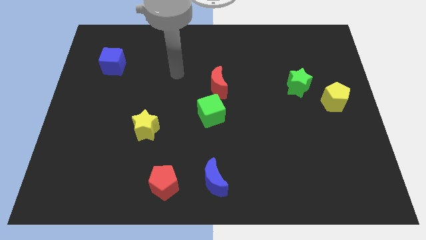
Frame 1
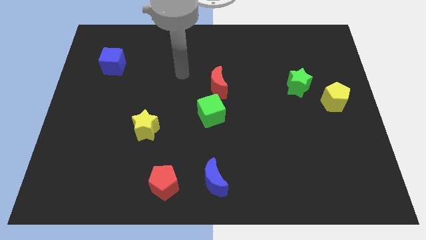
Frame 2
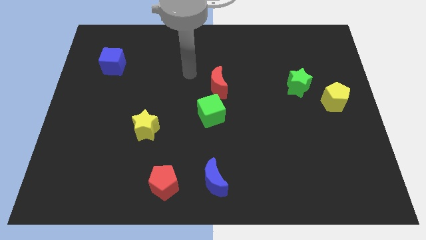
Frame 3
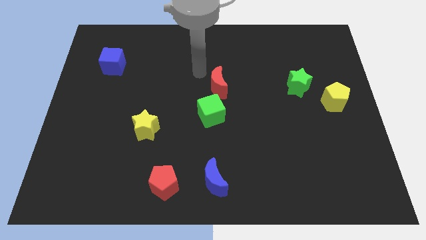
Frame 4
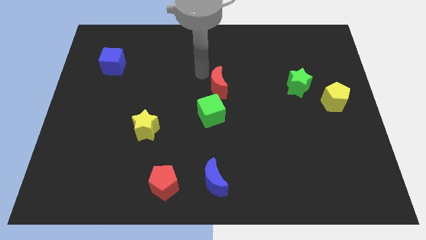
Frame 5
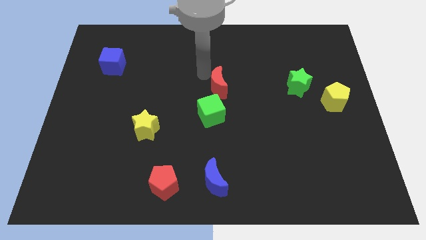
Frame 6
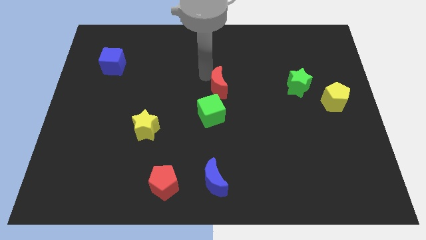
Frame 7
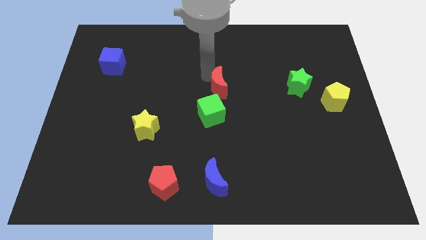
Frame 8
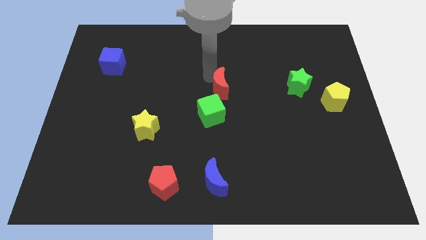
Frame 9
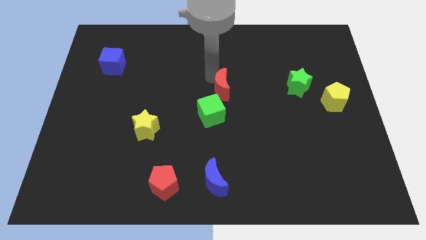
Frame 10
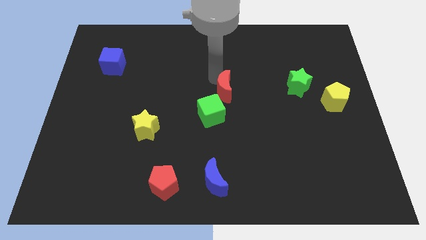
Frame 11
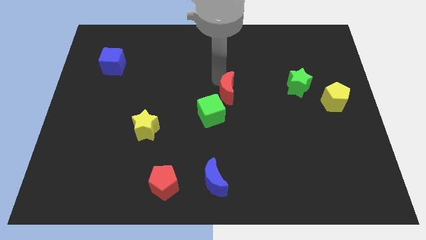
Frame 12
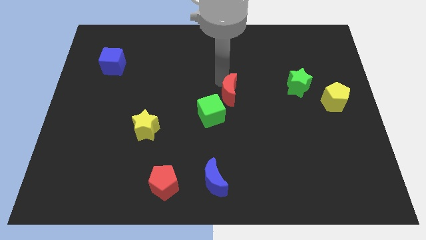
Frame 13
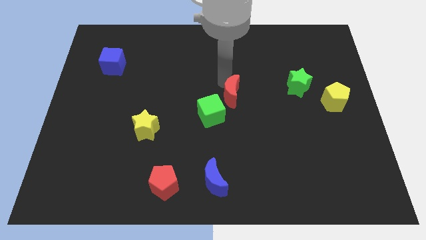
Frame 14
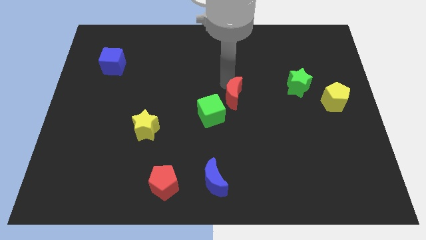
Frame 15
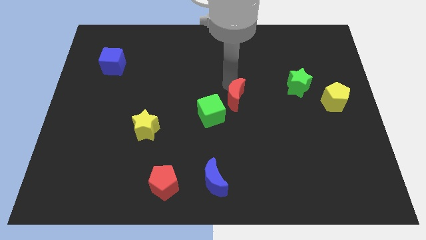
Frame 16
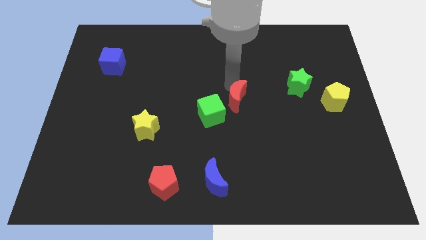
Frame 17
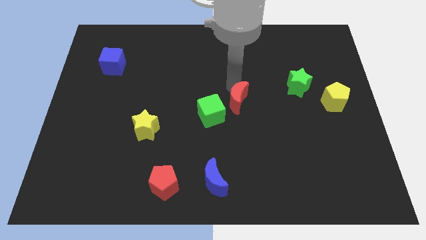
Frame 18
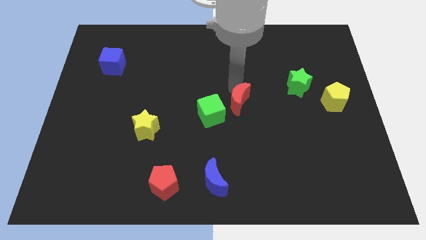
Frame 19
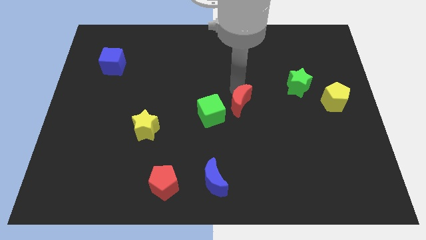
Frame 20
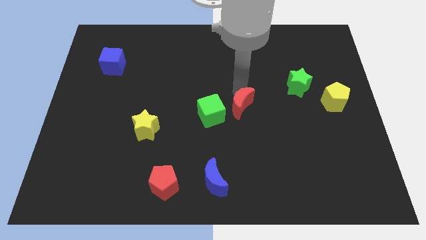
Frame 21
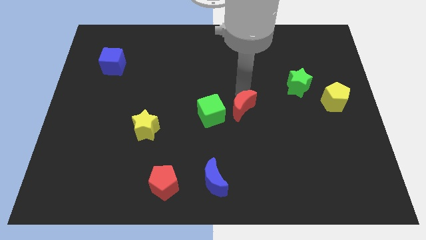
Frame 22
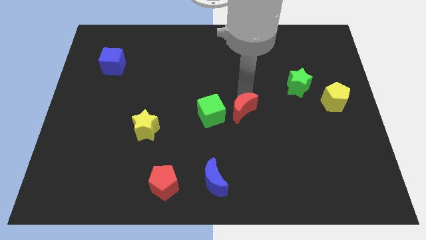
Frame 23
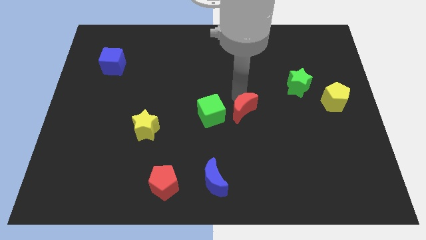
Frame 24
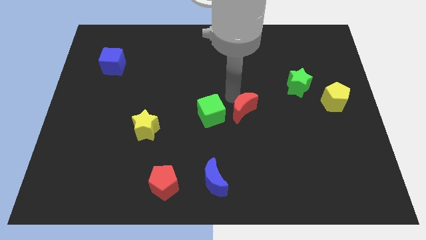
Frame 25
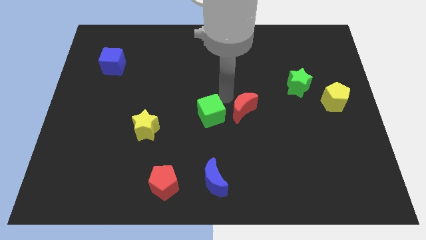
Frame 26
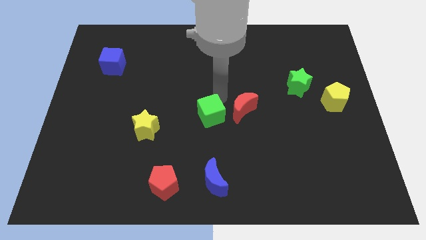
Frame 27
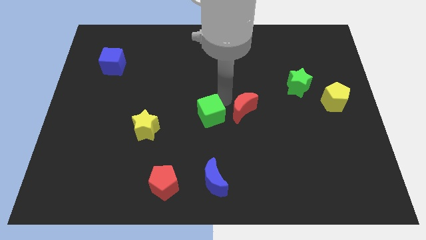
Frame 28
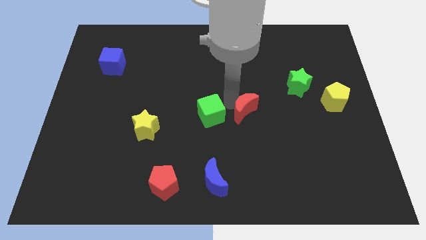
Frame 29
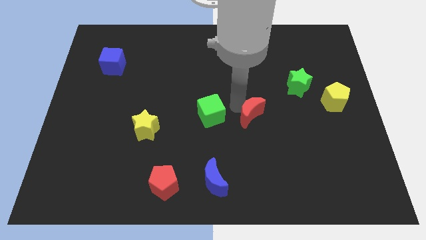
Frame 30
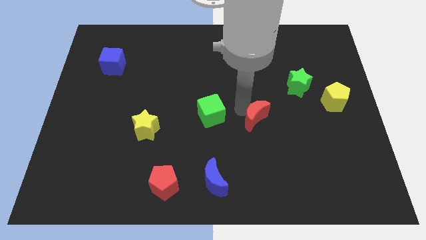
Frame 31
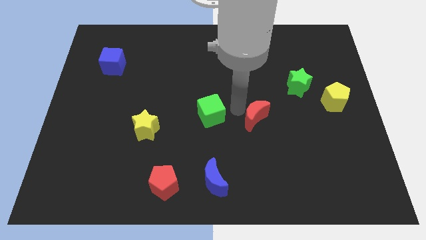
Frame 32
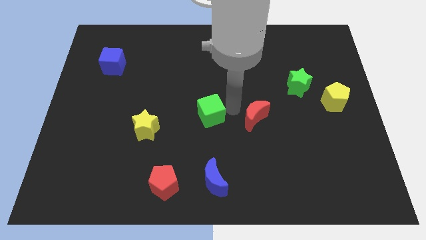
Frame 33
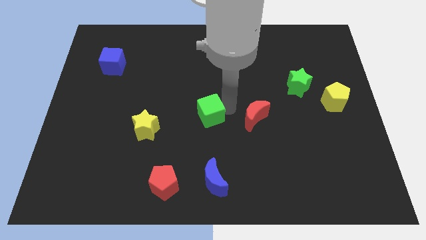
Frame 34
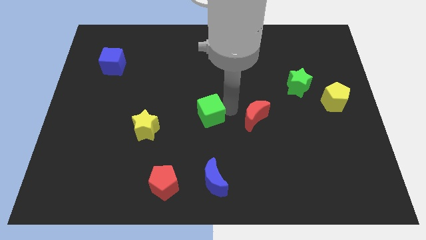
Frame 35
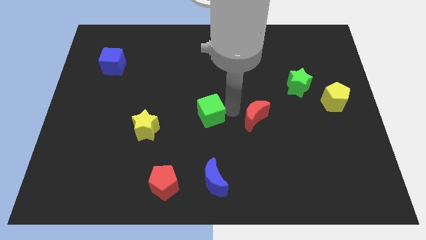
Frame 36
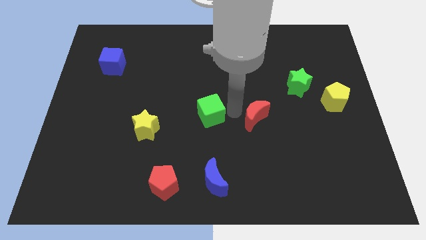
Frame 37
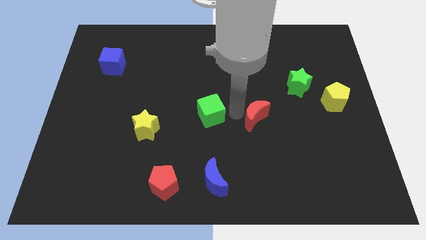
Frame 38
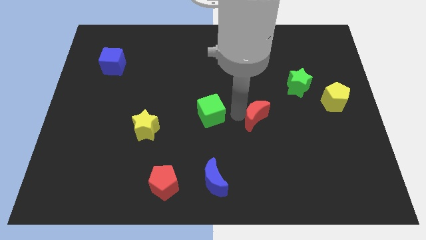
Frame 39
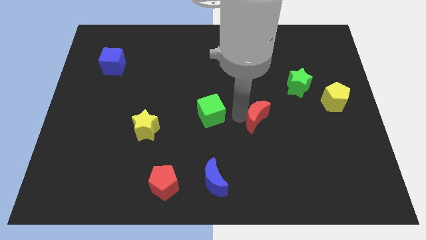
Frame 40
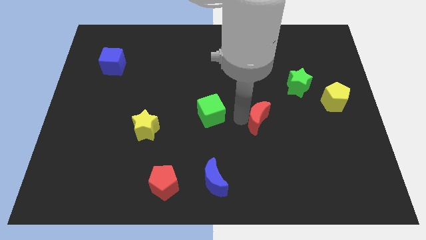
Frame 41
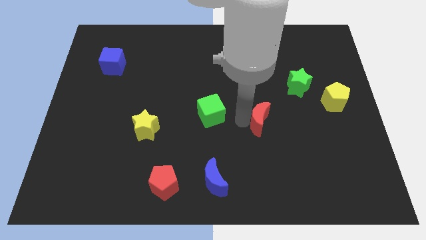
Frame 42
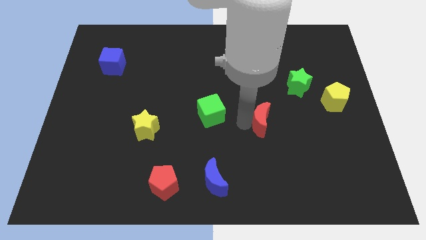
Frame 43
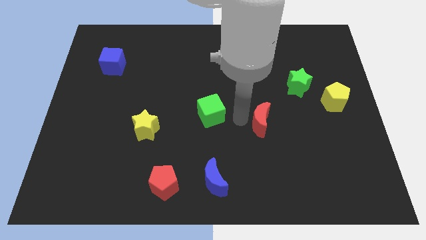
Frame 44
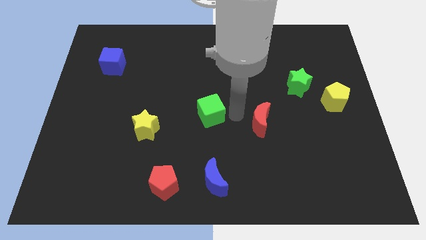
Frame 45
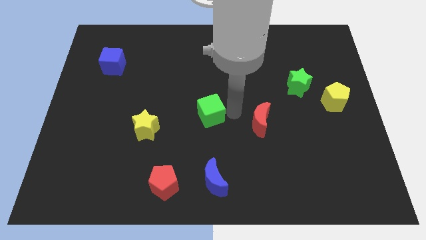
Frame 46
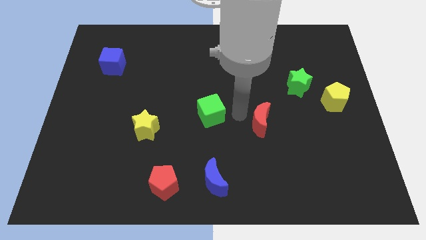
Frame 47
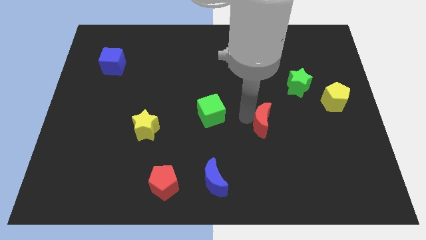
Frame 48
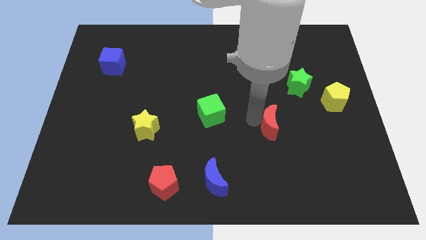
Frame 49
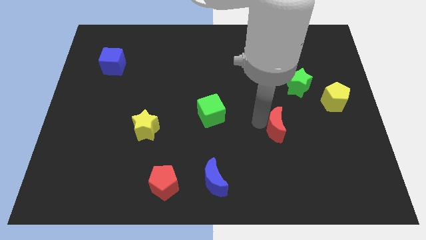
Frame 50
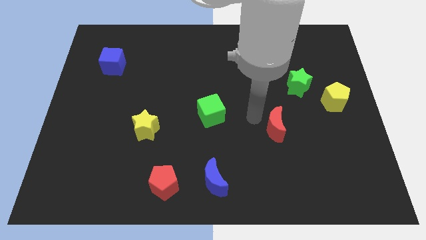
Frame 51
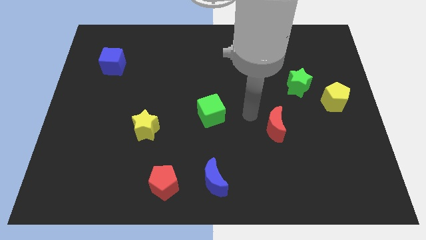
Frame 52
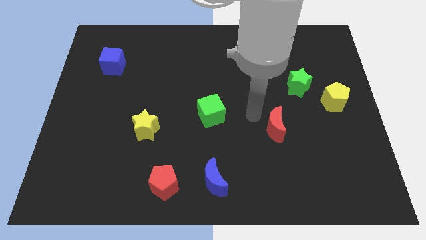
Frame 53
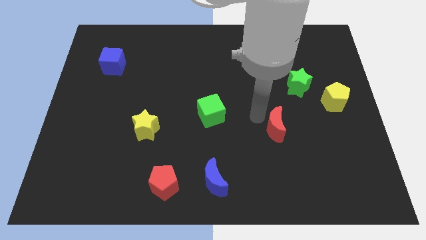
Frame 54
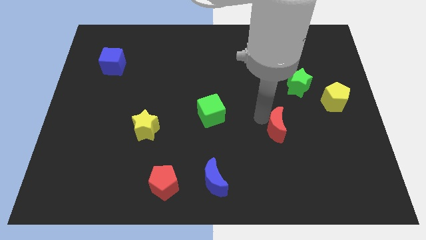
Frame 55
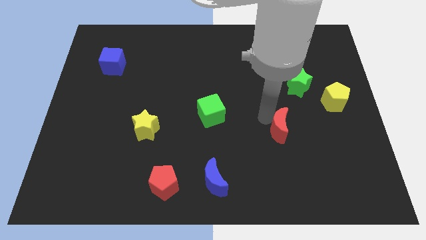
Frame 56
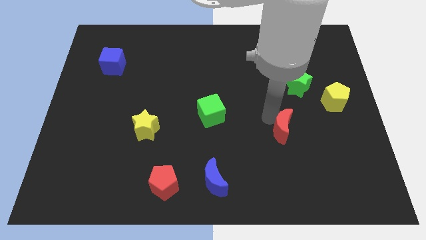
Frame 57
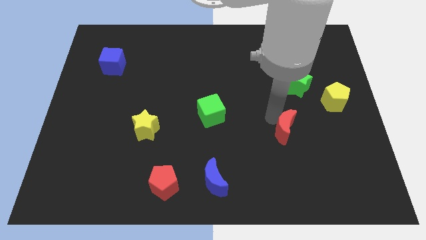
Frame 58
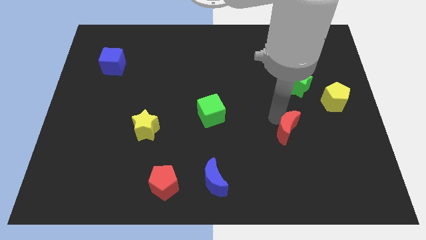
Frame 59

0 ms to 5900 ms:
push the red moon downwards and then right

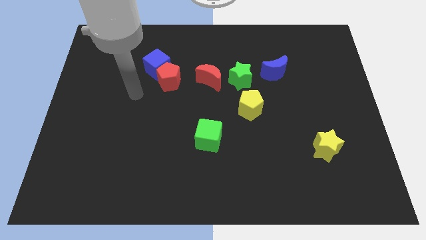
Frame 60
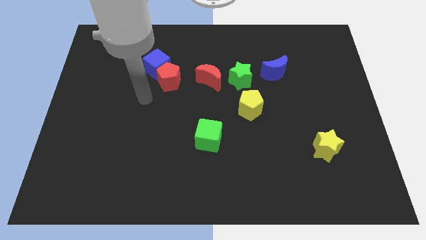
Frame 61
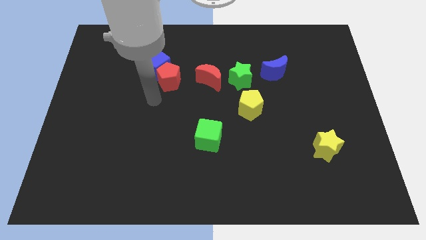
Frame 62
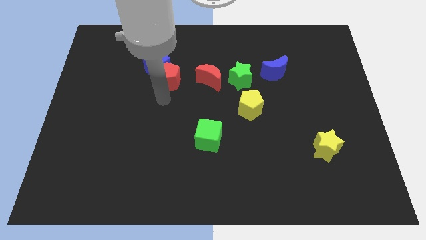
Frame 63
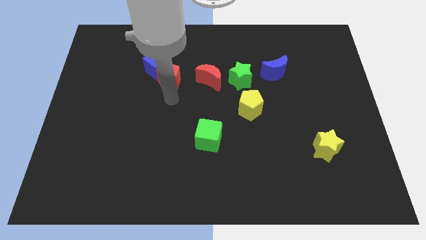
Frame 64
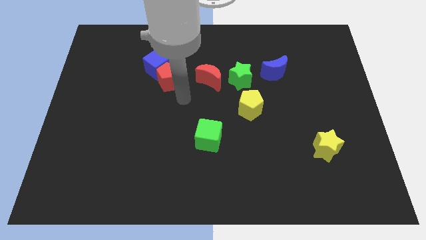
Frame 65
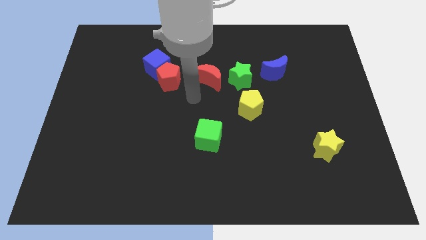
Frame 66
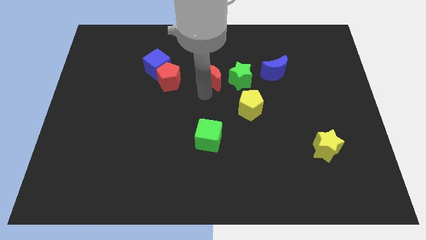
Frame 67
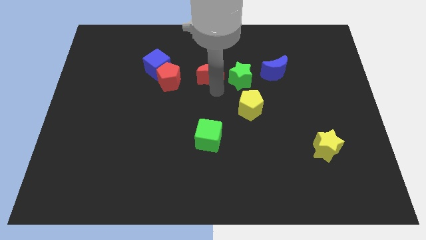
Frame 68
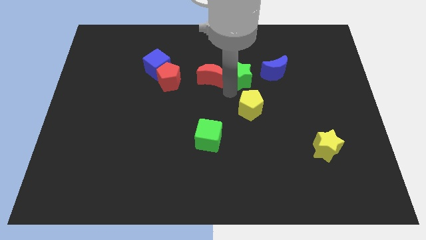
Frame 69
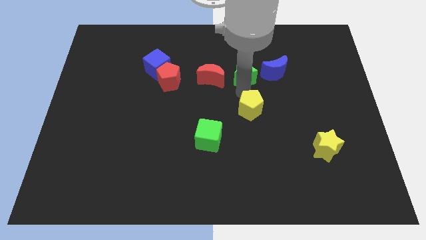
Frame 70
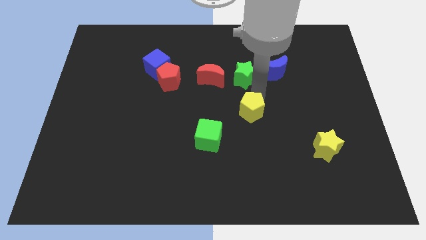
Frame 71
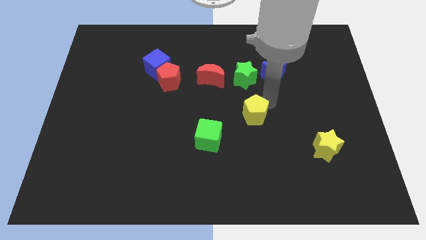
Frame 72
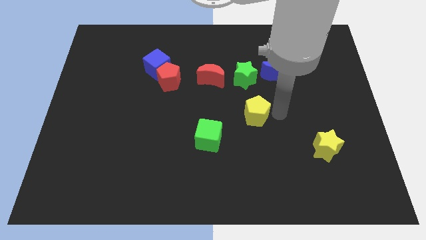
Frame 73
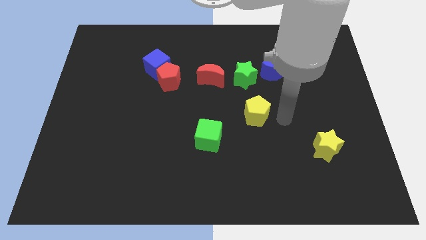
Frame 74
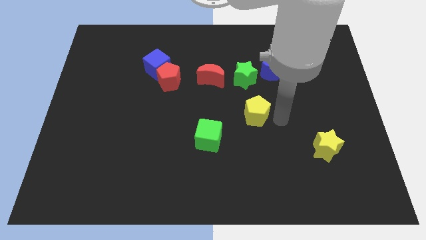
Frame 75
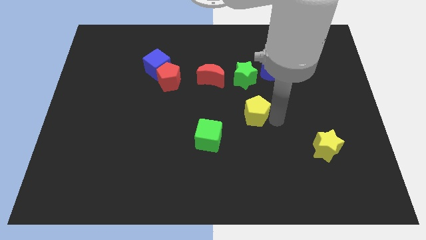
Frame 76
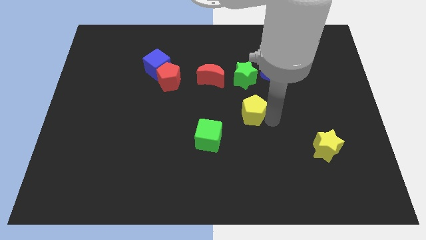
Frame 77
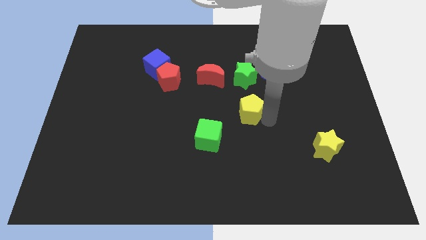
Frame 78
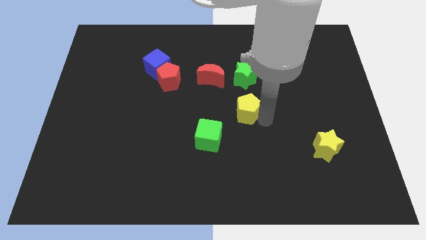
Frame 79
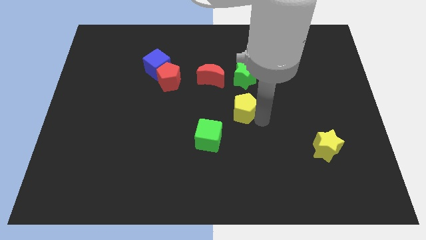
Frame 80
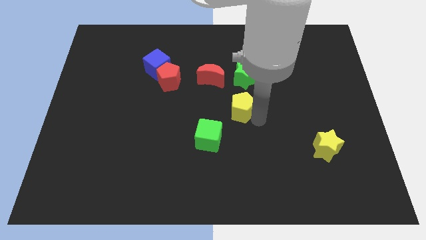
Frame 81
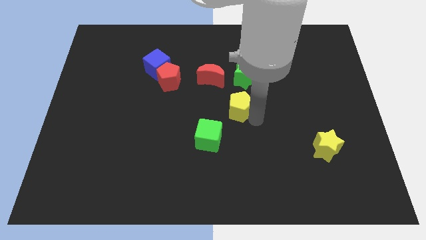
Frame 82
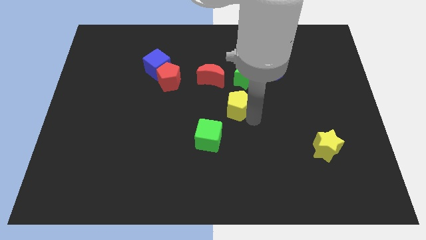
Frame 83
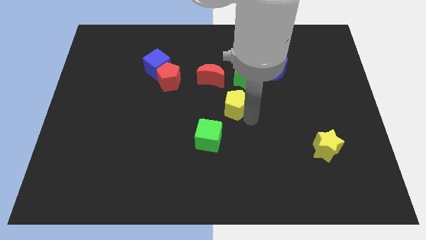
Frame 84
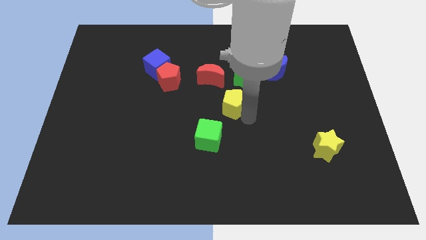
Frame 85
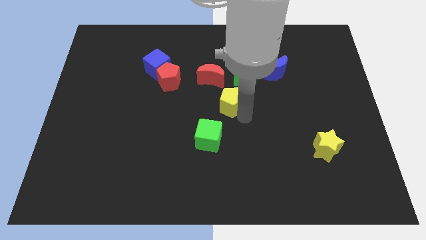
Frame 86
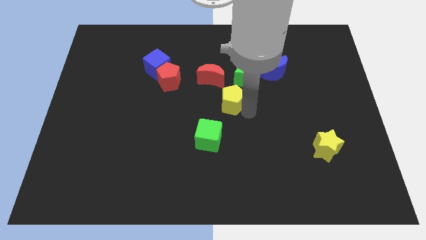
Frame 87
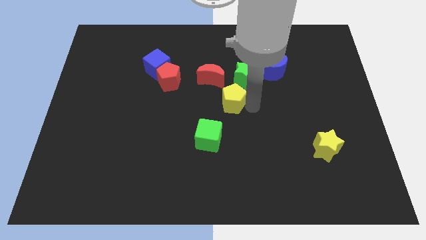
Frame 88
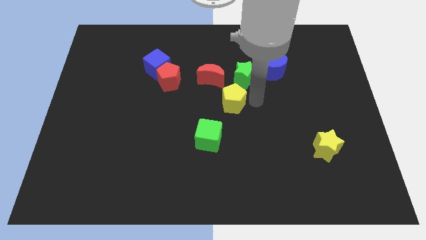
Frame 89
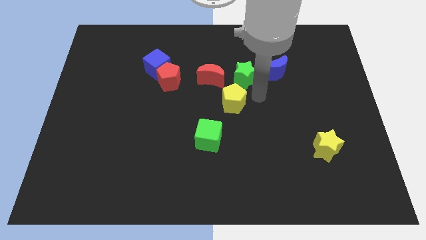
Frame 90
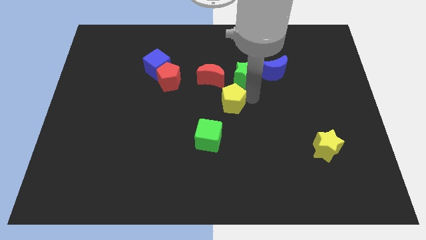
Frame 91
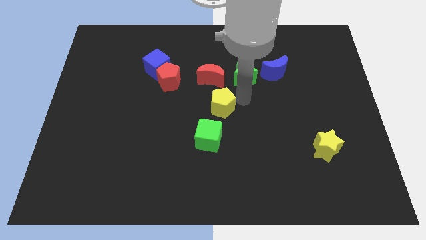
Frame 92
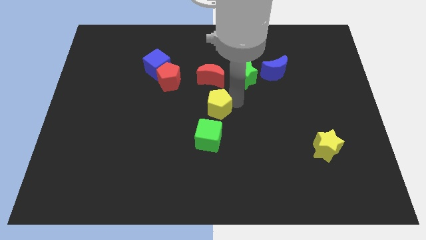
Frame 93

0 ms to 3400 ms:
push the yellow pentagon to the left a bit
